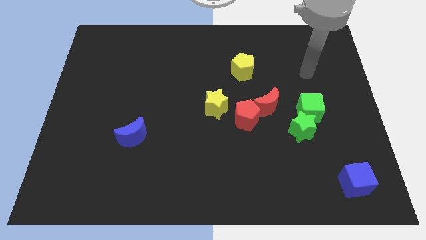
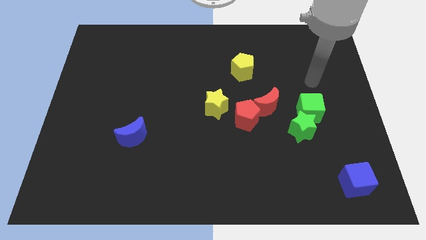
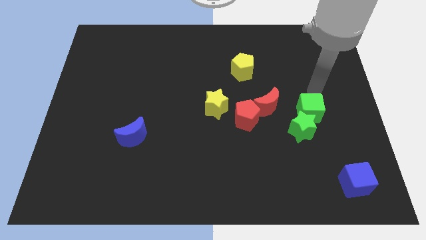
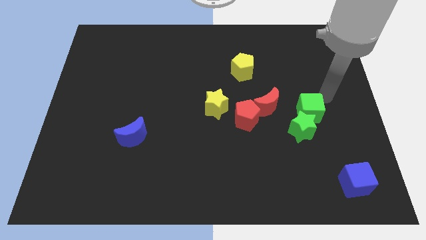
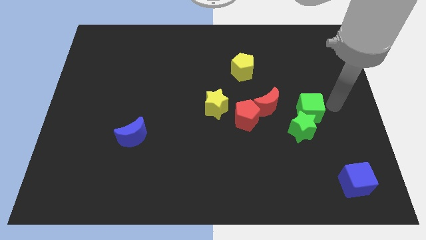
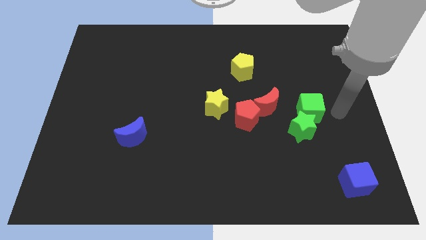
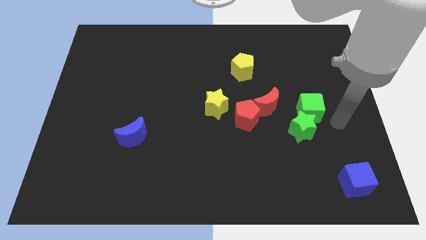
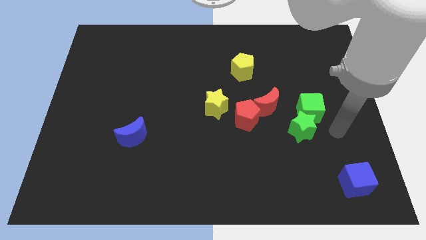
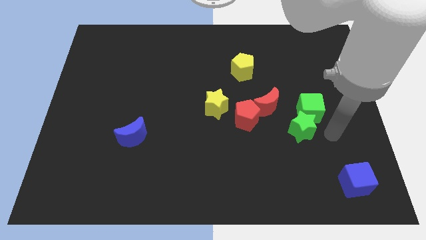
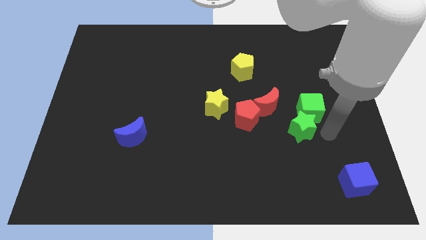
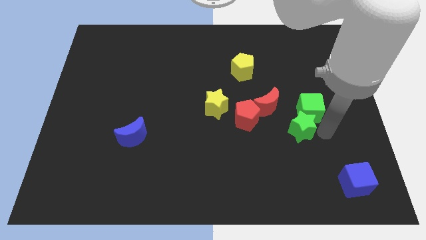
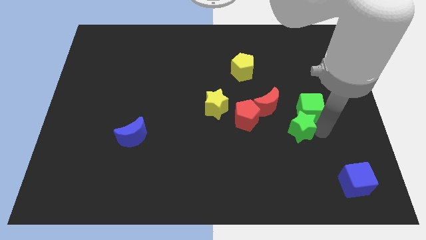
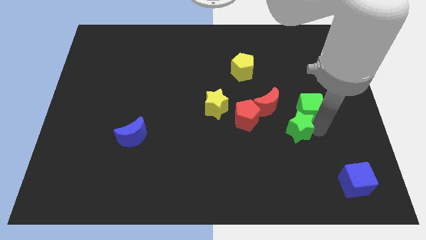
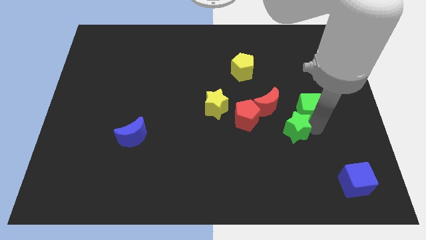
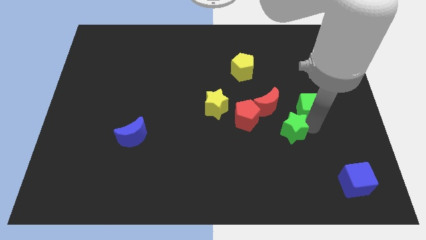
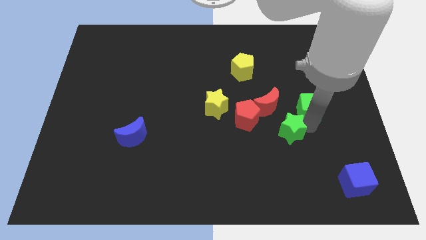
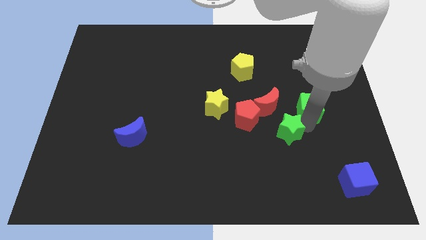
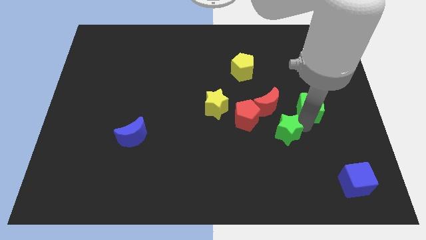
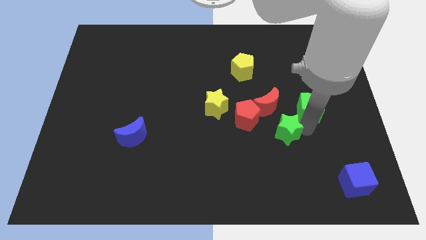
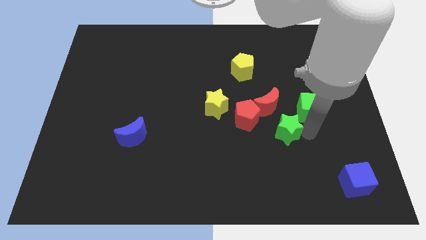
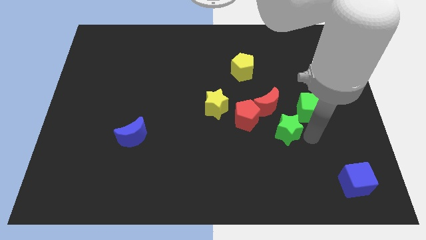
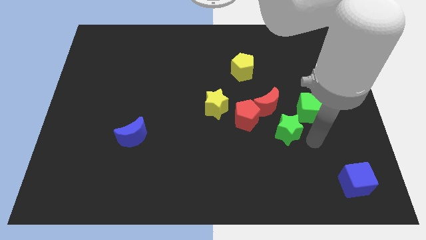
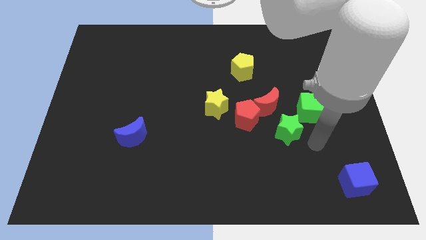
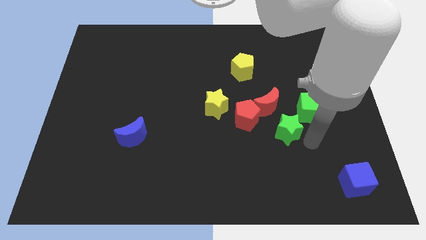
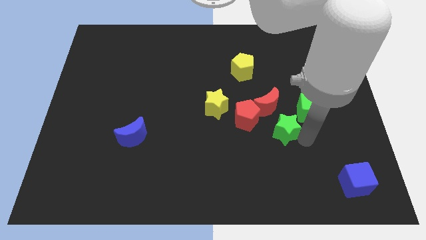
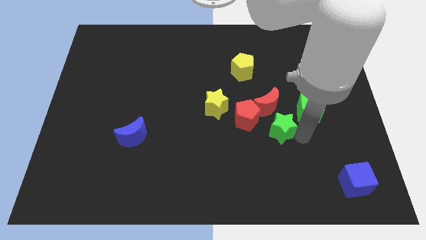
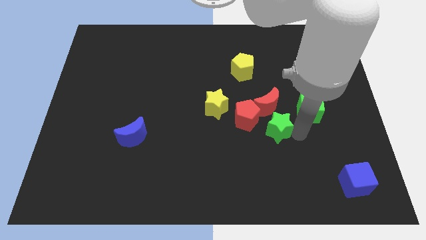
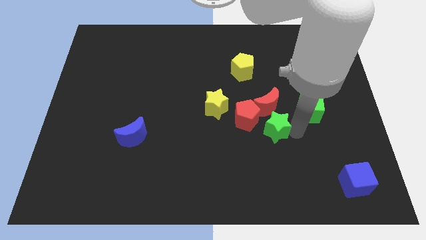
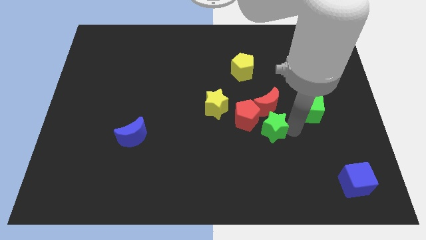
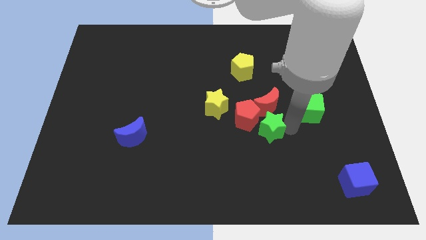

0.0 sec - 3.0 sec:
move the green star left a bit

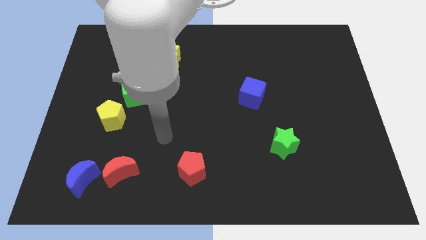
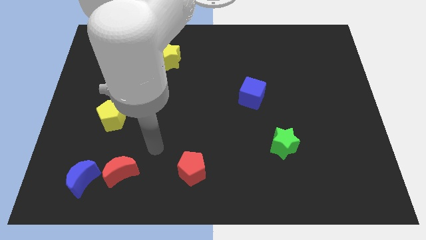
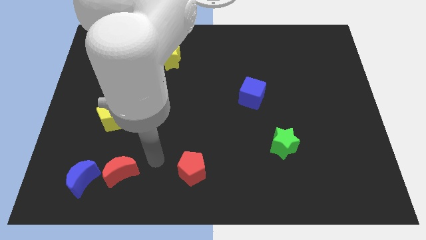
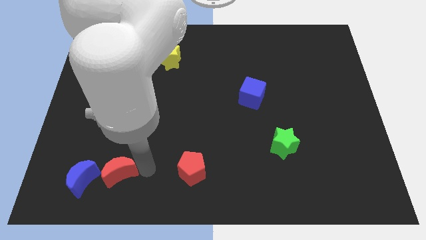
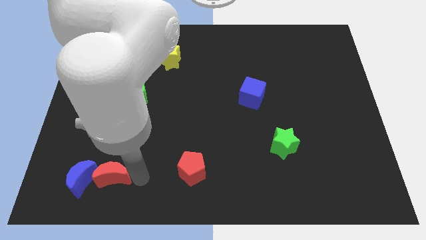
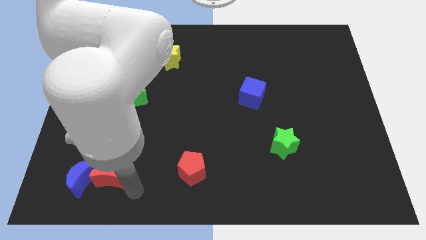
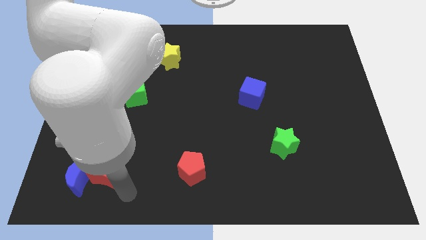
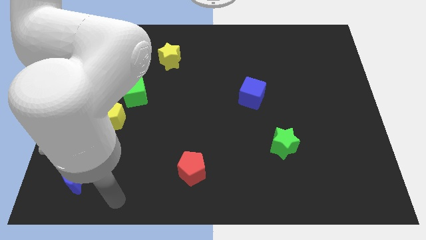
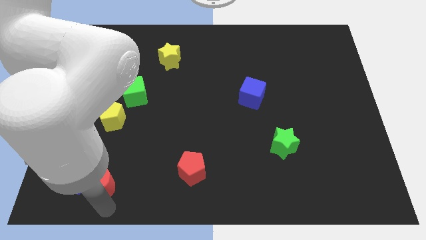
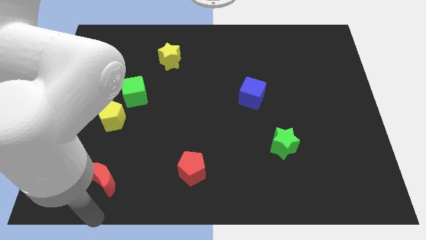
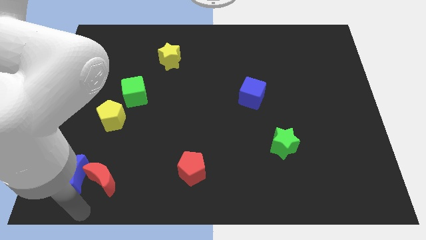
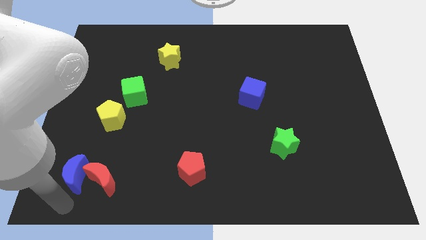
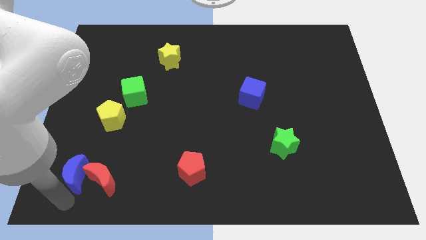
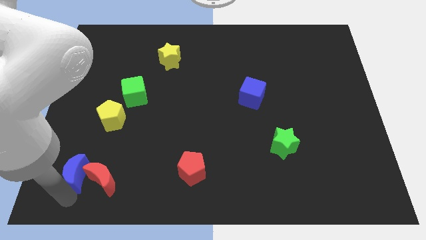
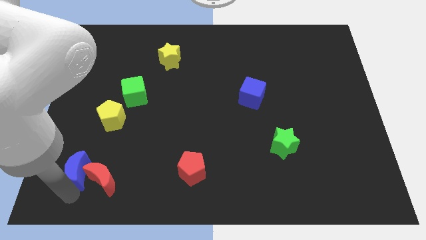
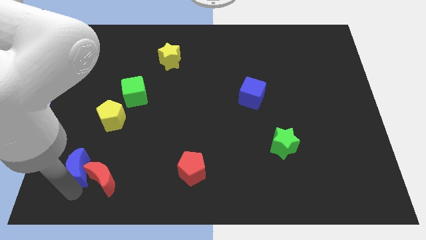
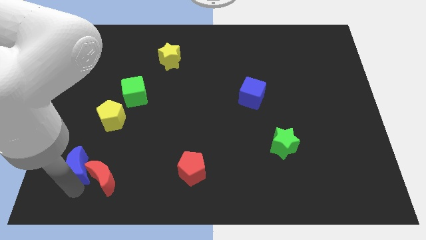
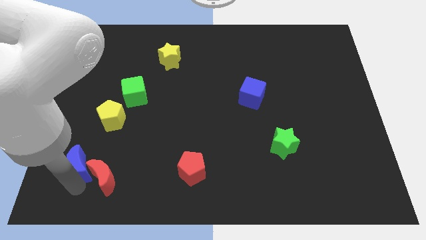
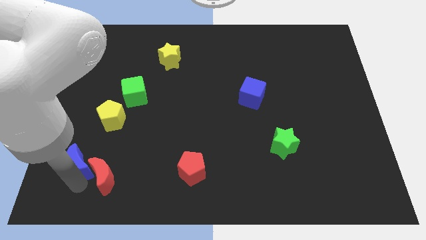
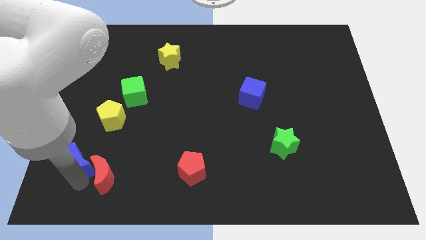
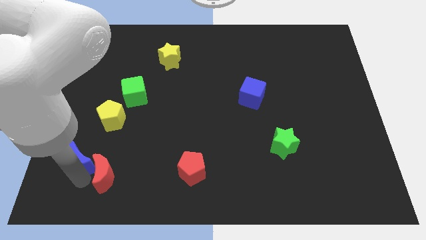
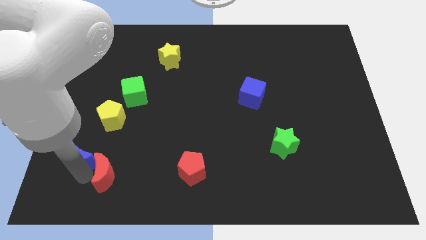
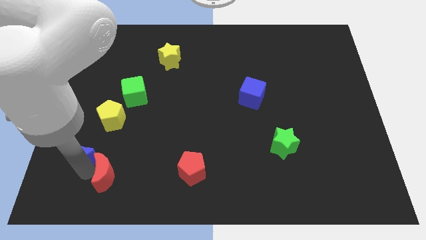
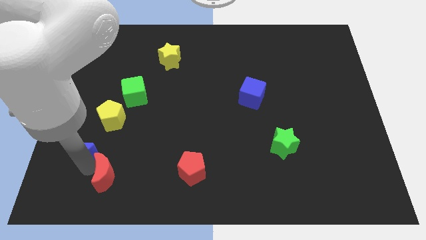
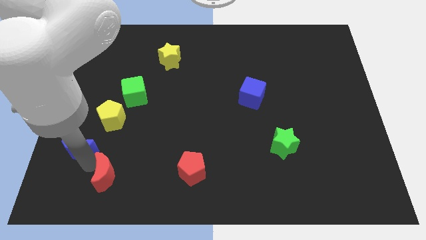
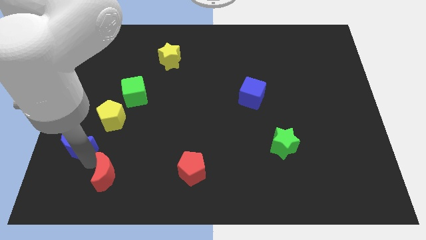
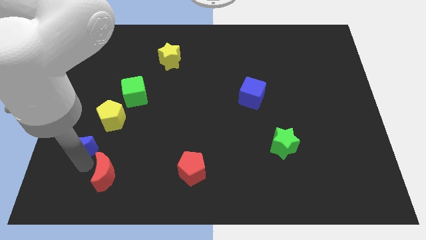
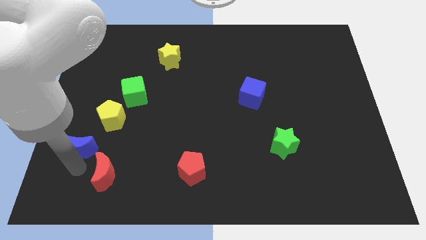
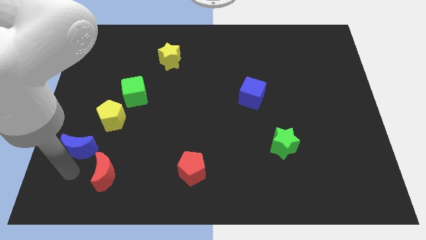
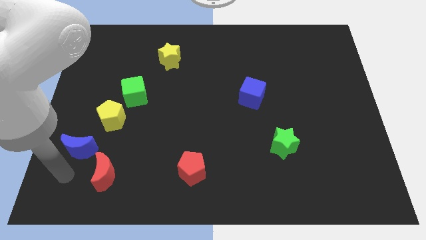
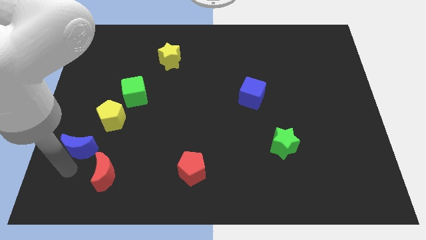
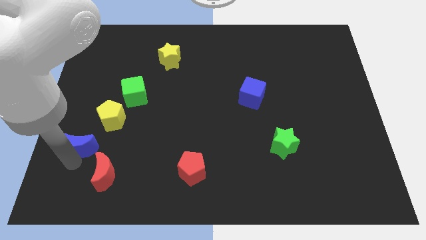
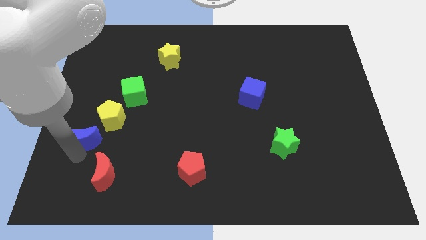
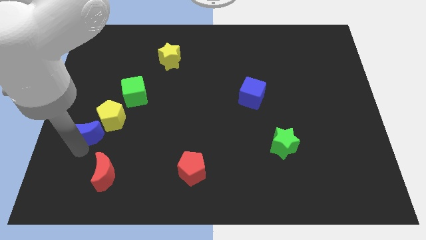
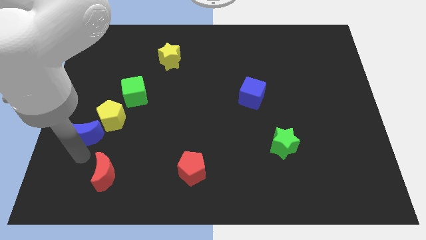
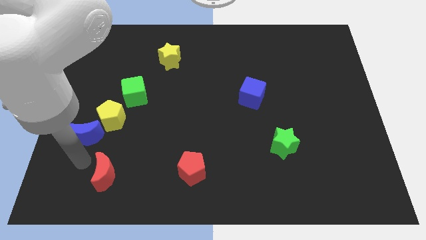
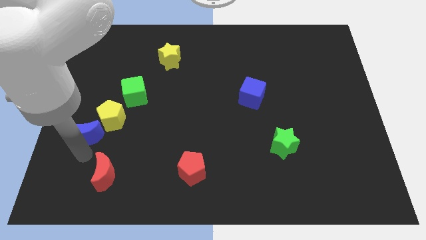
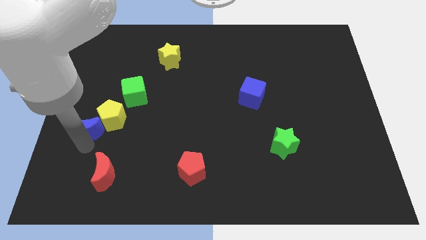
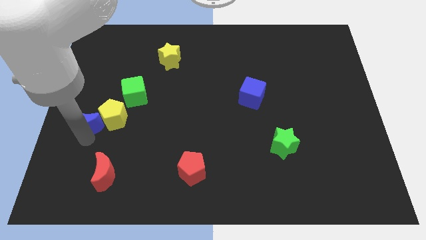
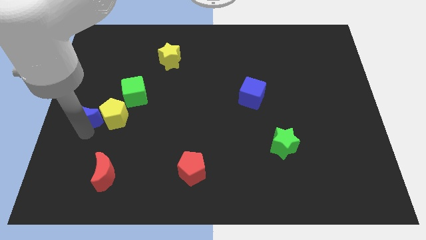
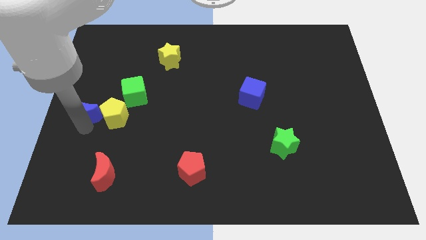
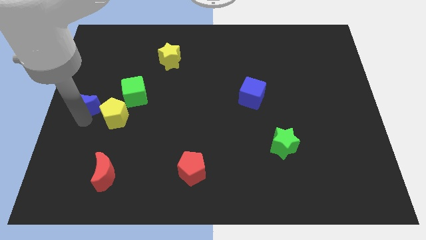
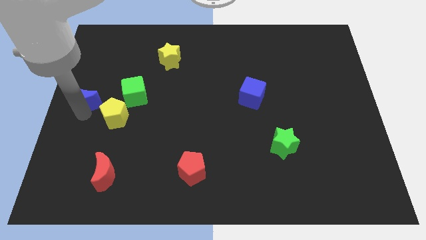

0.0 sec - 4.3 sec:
push the blue moon upwards

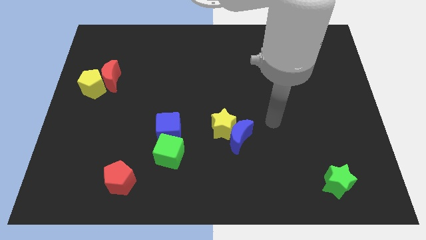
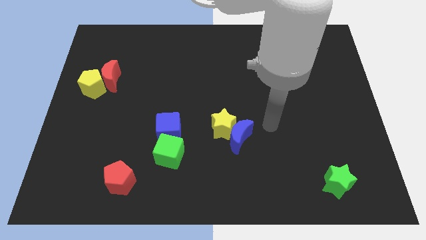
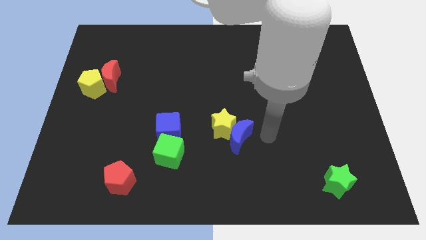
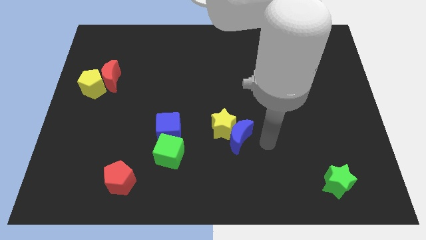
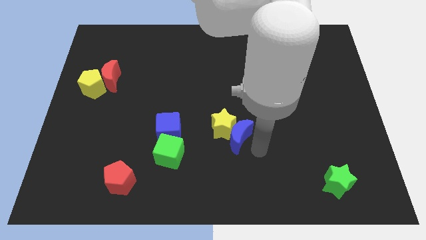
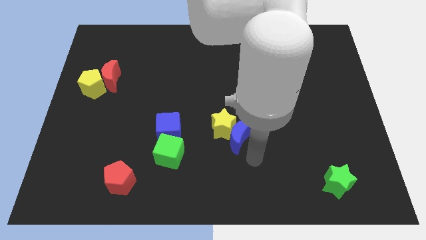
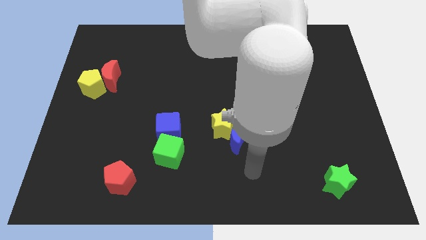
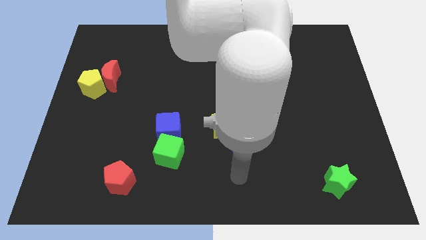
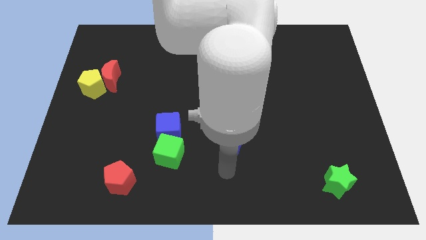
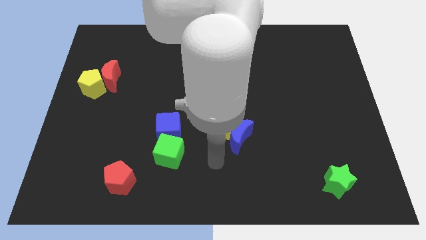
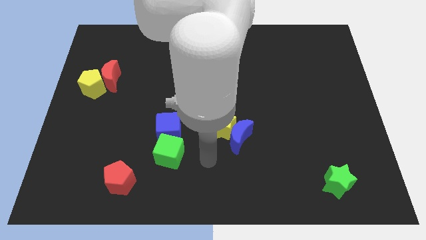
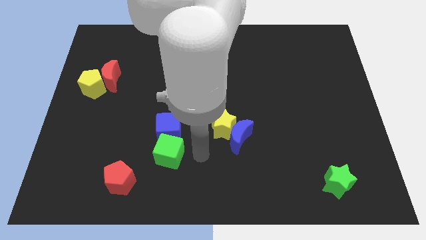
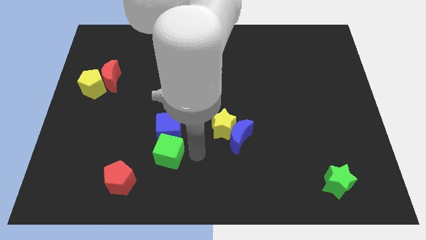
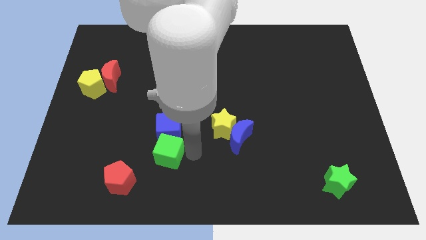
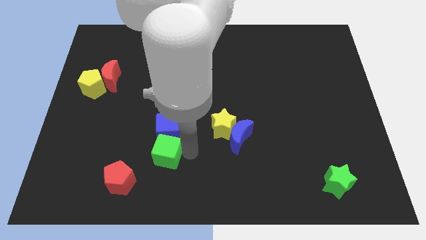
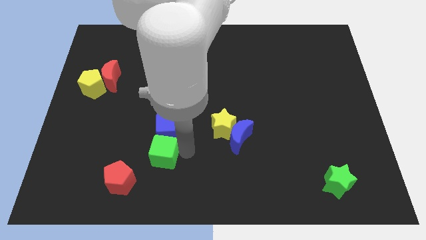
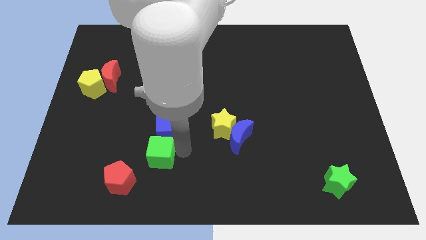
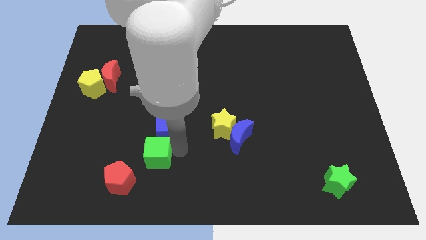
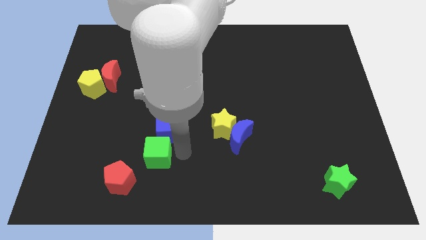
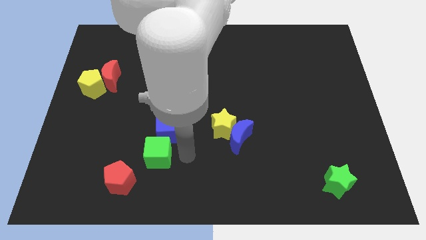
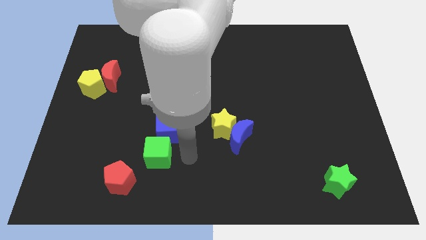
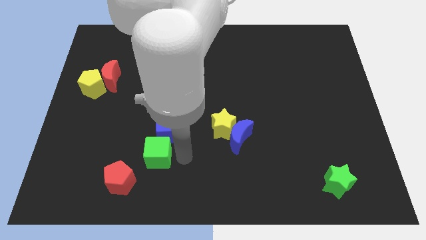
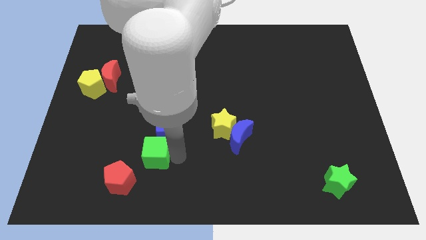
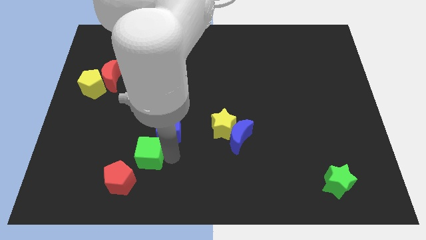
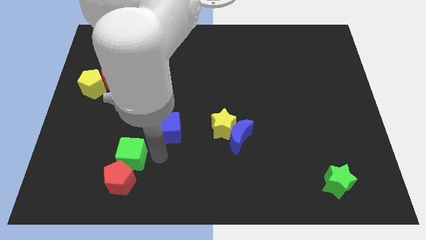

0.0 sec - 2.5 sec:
slightly move the green cube left
